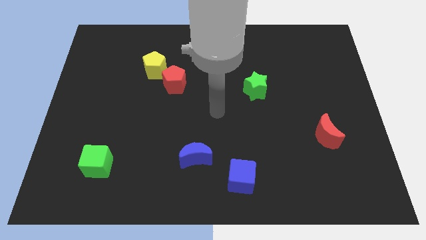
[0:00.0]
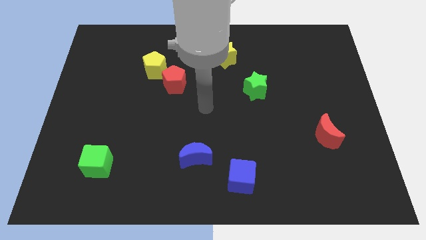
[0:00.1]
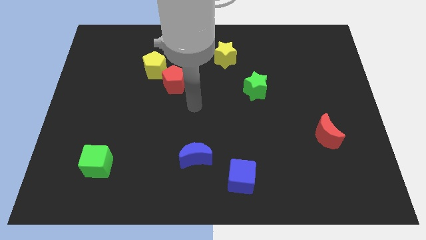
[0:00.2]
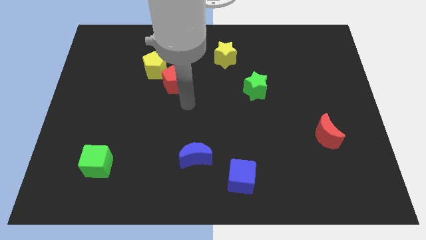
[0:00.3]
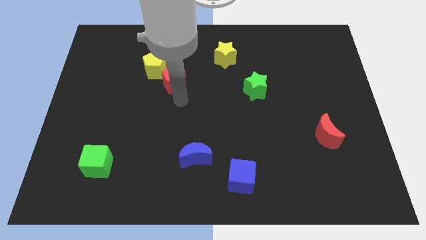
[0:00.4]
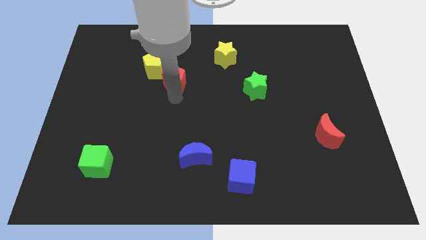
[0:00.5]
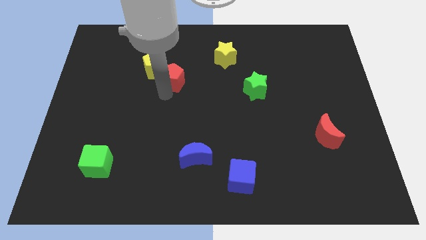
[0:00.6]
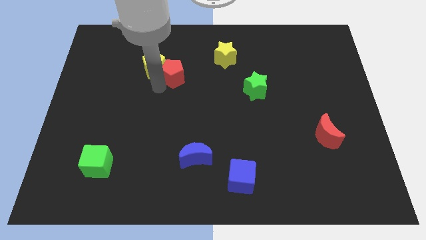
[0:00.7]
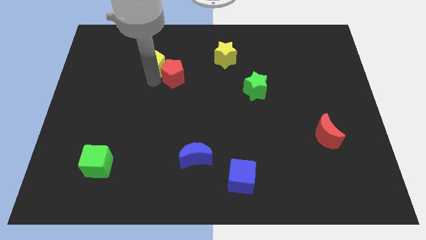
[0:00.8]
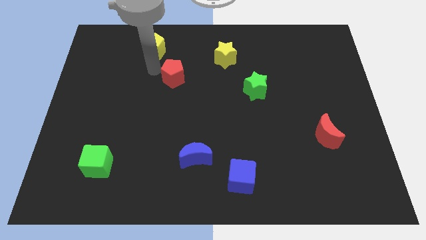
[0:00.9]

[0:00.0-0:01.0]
separate the red pentagon from the yellow pentagon

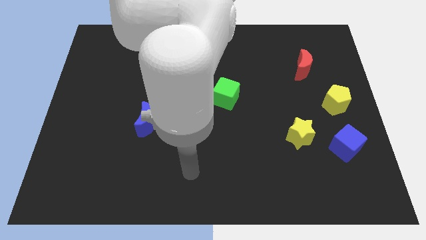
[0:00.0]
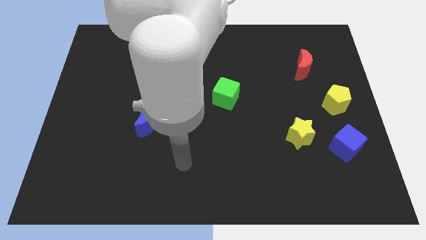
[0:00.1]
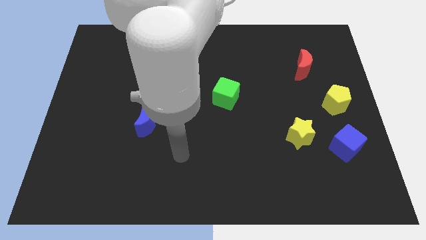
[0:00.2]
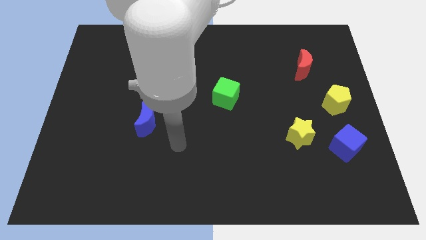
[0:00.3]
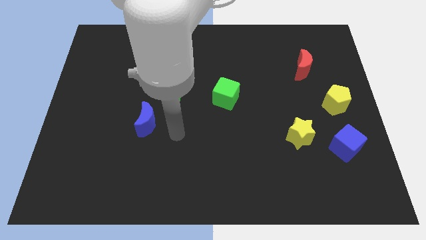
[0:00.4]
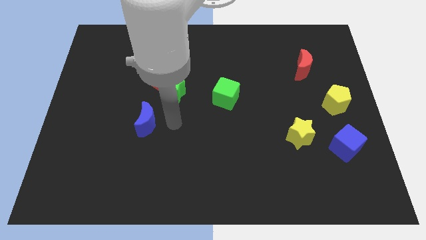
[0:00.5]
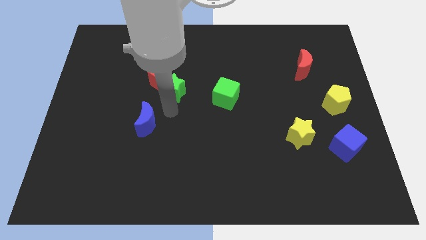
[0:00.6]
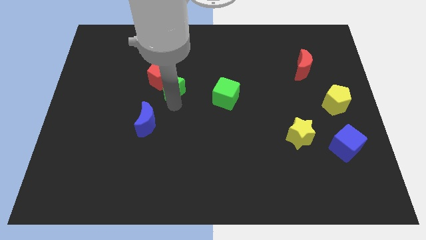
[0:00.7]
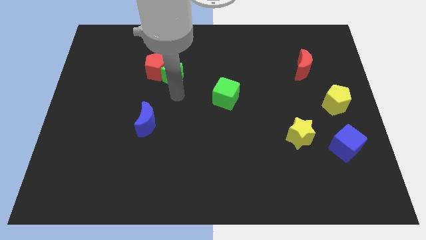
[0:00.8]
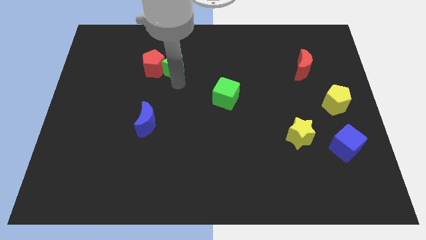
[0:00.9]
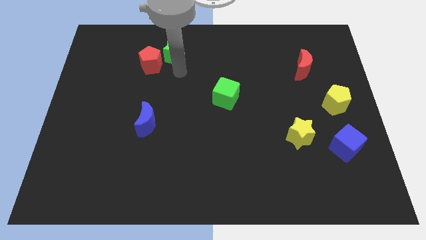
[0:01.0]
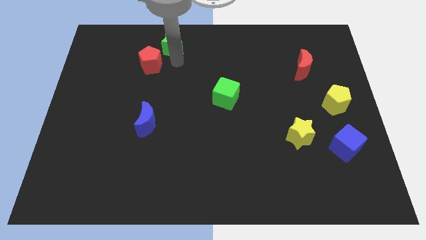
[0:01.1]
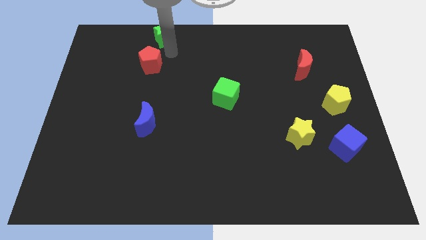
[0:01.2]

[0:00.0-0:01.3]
separate the red pentagon from the green star

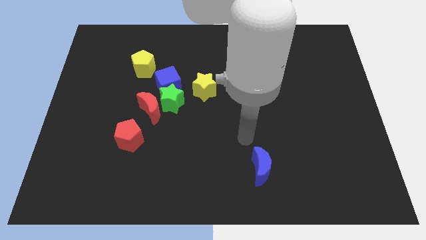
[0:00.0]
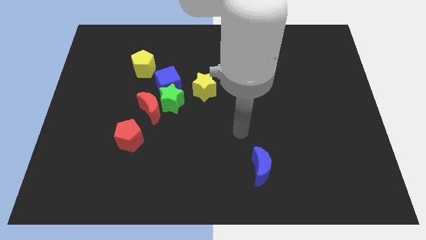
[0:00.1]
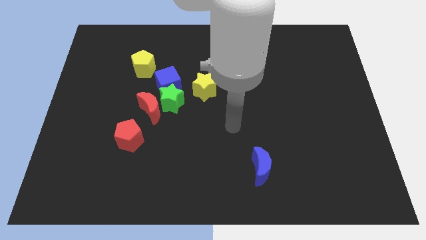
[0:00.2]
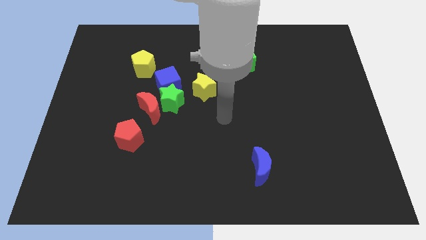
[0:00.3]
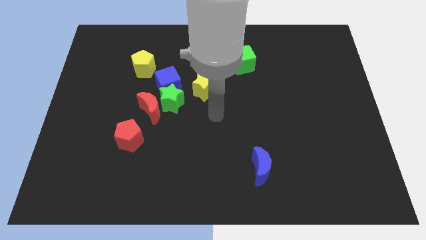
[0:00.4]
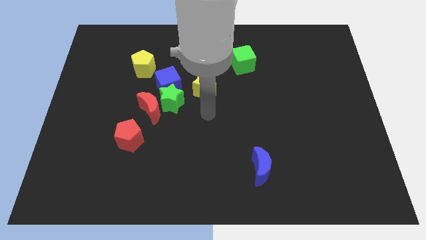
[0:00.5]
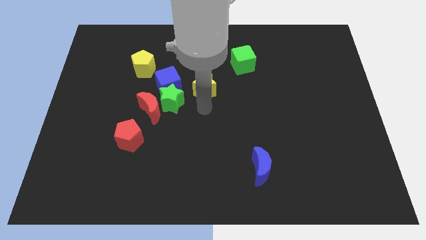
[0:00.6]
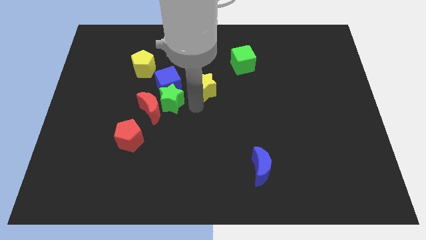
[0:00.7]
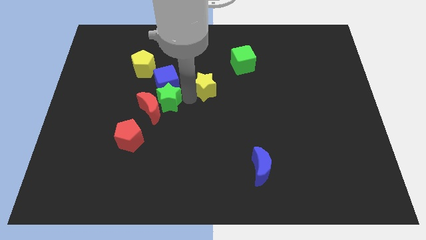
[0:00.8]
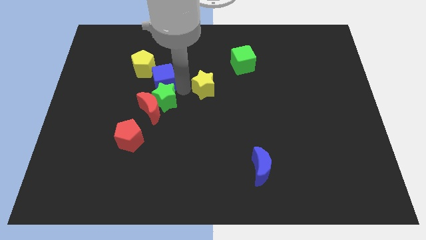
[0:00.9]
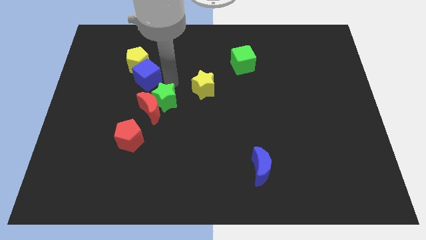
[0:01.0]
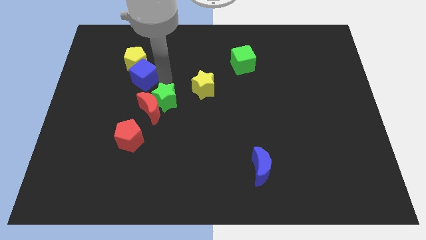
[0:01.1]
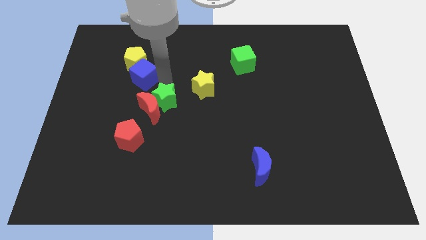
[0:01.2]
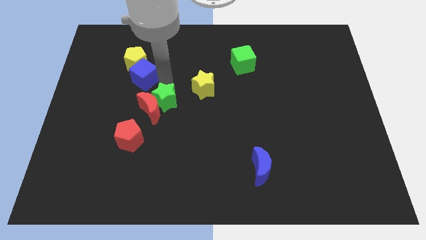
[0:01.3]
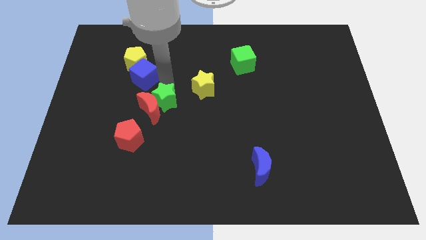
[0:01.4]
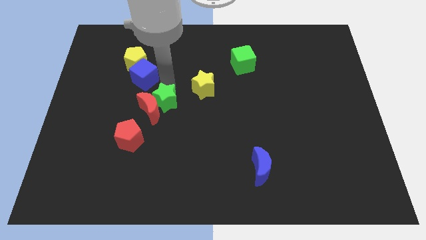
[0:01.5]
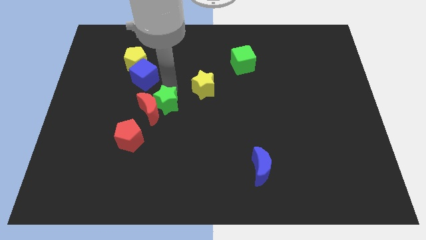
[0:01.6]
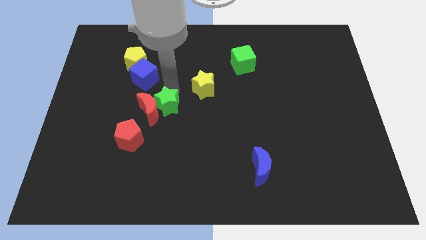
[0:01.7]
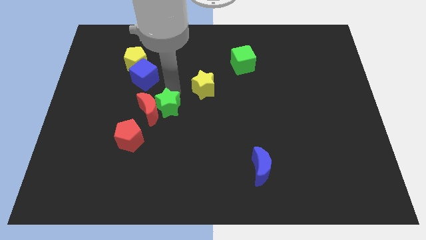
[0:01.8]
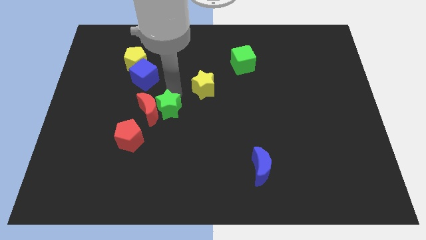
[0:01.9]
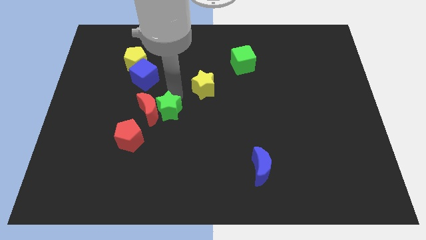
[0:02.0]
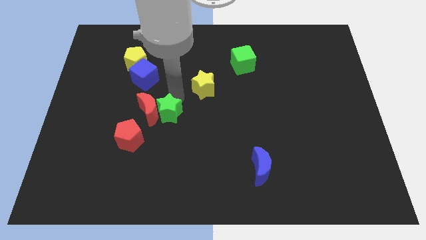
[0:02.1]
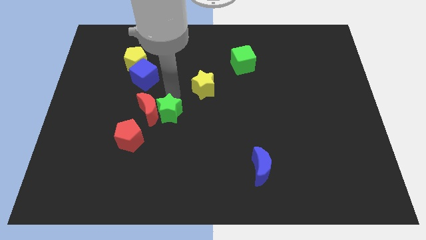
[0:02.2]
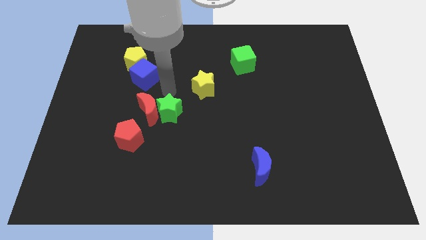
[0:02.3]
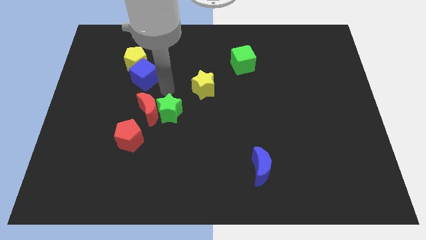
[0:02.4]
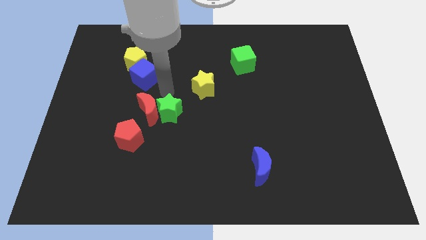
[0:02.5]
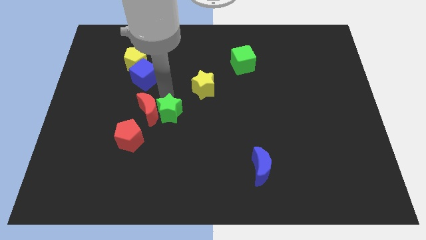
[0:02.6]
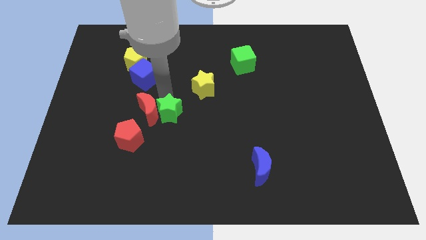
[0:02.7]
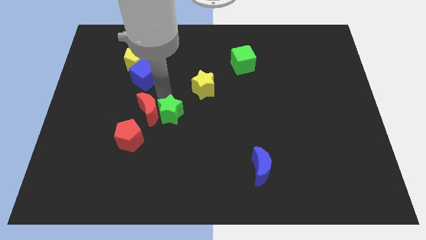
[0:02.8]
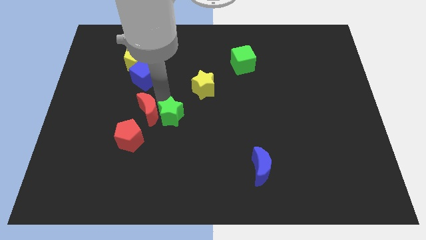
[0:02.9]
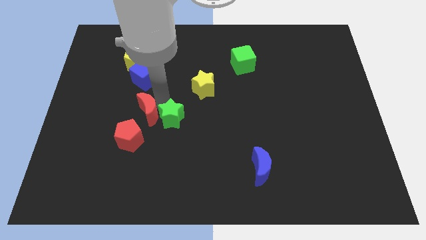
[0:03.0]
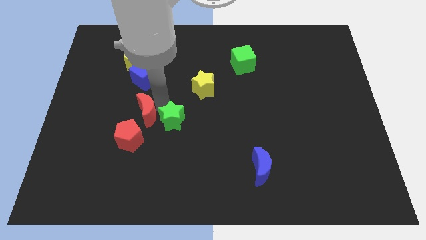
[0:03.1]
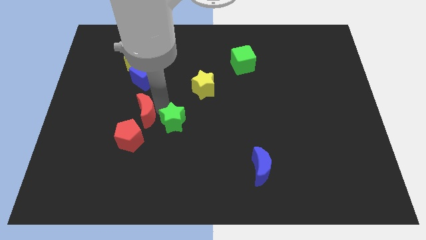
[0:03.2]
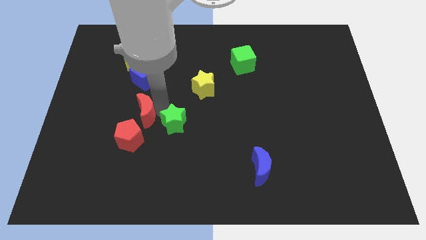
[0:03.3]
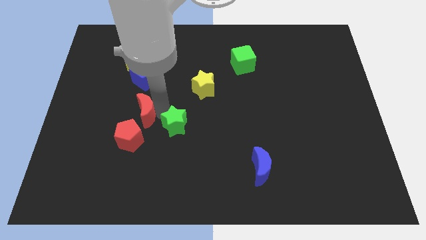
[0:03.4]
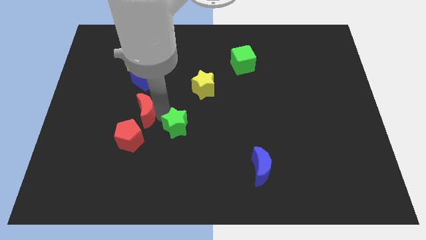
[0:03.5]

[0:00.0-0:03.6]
separate the green star from the blue cube, red moon, and yellow star

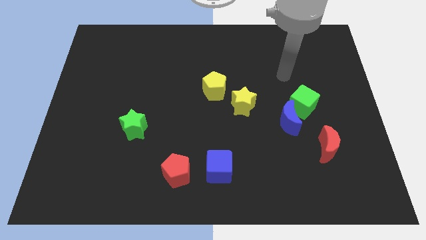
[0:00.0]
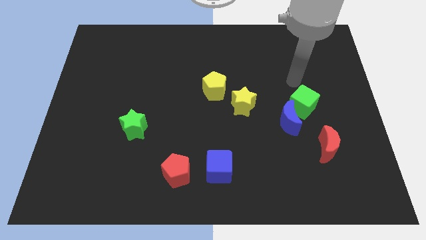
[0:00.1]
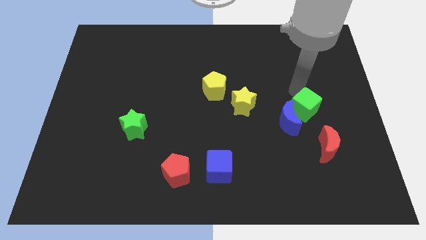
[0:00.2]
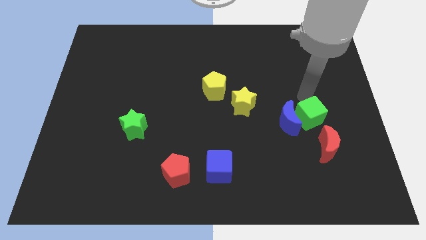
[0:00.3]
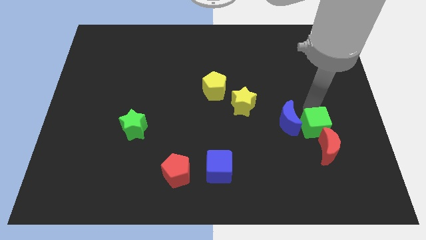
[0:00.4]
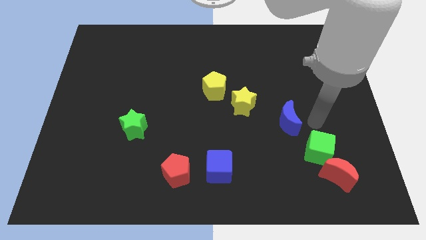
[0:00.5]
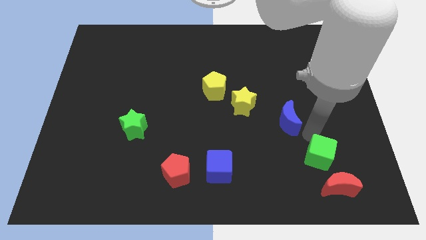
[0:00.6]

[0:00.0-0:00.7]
separate the blue moon from the green cube

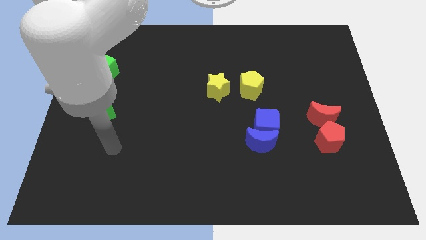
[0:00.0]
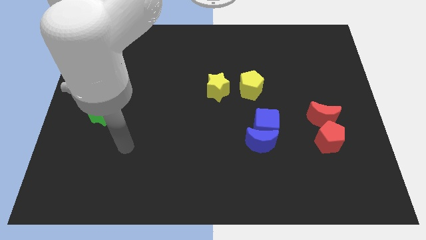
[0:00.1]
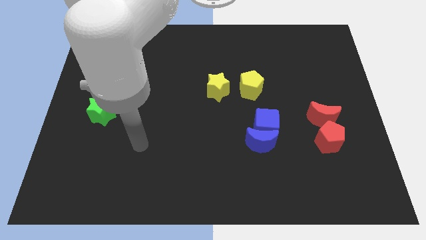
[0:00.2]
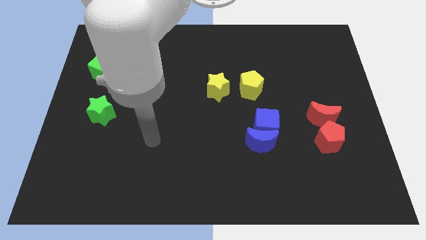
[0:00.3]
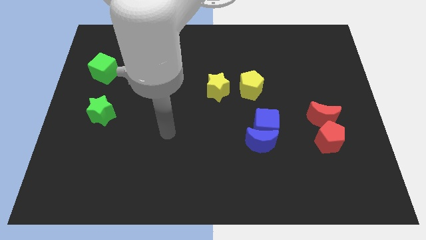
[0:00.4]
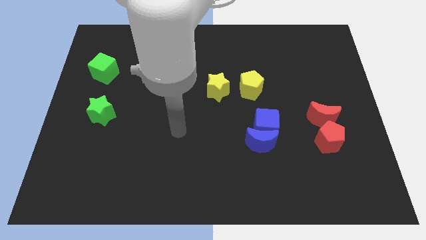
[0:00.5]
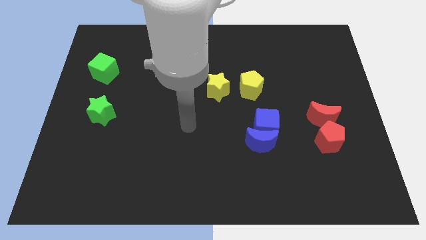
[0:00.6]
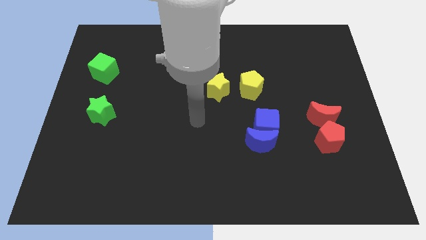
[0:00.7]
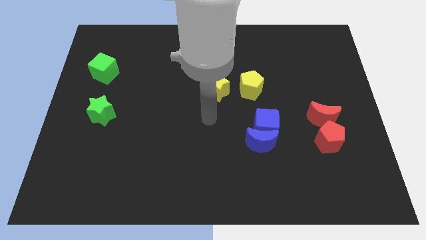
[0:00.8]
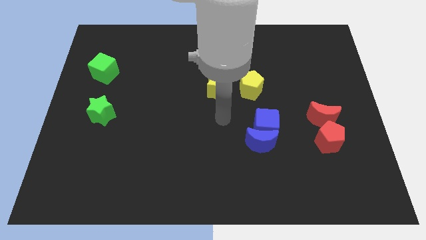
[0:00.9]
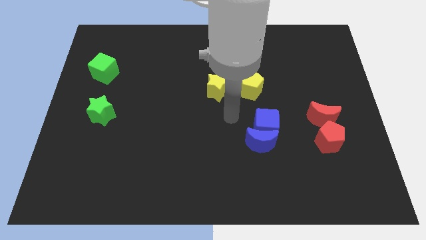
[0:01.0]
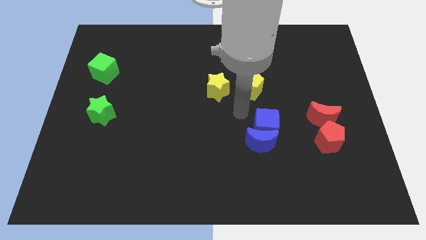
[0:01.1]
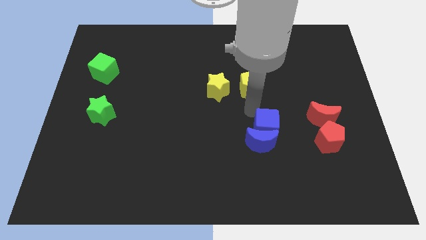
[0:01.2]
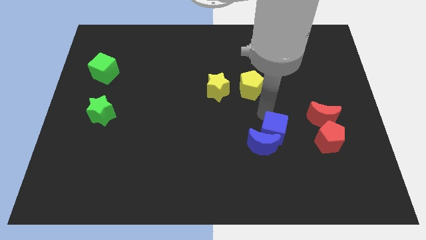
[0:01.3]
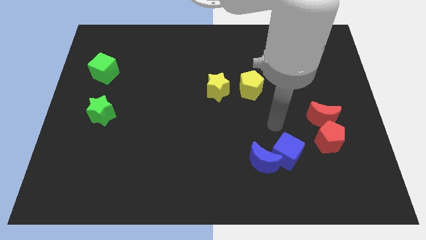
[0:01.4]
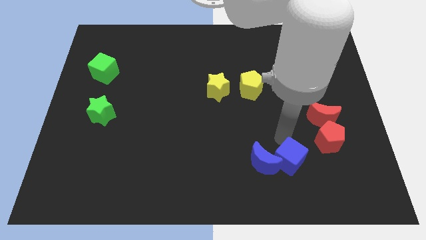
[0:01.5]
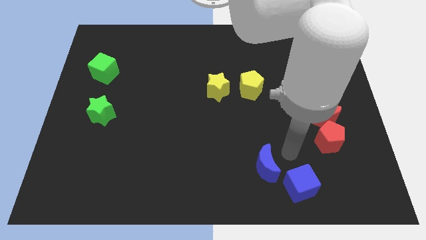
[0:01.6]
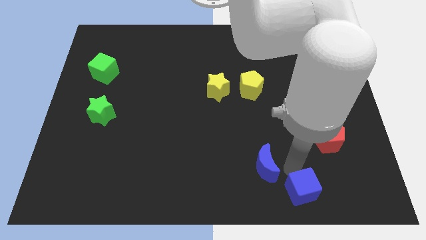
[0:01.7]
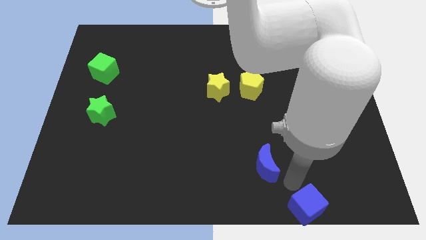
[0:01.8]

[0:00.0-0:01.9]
move the blue moon away from the blue cube

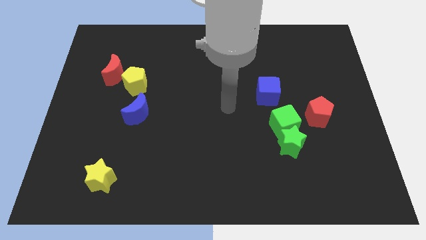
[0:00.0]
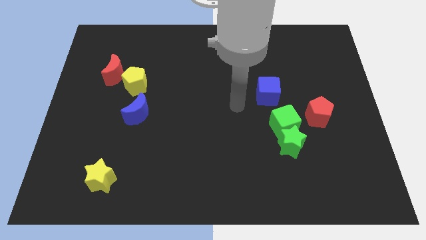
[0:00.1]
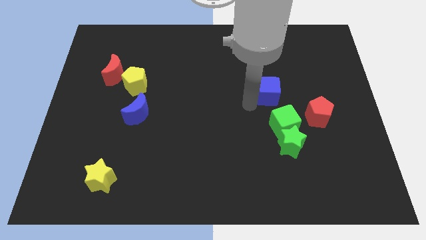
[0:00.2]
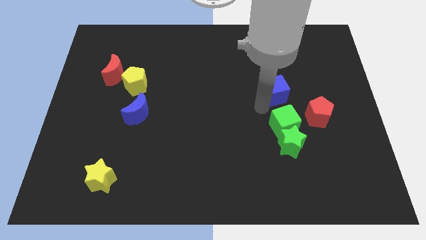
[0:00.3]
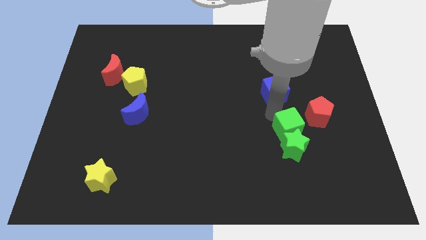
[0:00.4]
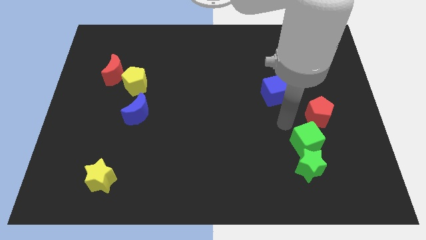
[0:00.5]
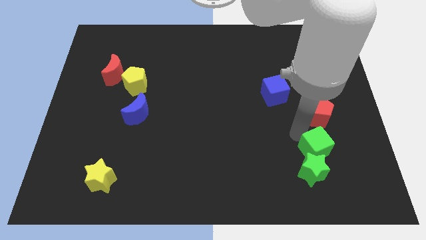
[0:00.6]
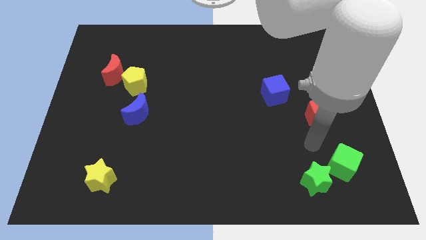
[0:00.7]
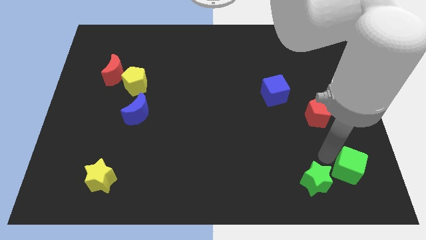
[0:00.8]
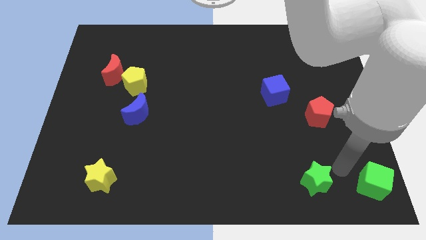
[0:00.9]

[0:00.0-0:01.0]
pull the green star apart from the green cube

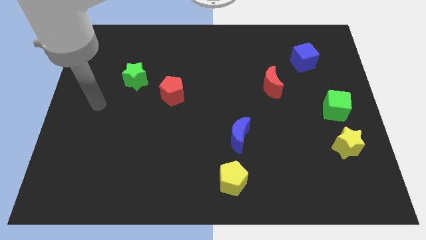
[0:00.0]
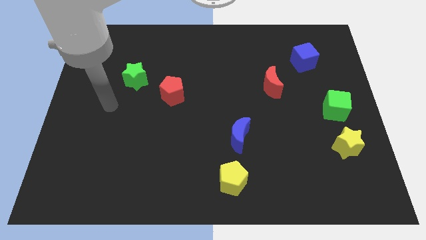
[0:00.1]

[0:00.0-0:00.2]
separate the green cube from the yellow star
